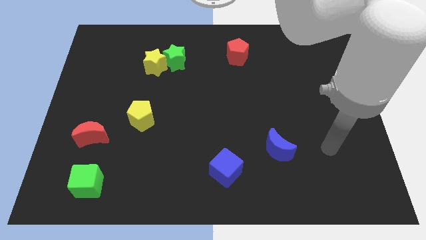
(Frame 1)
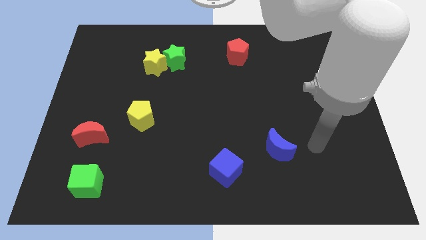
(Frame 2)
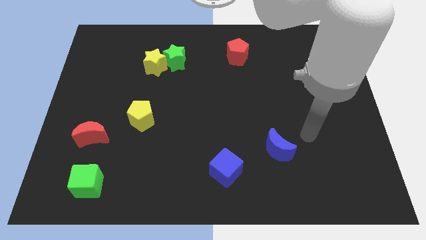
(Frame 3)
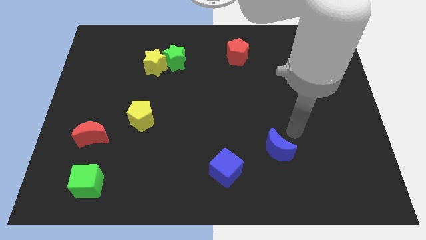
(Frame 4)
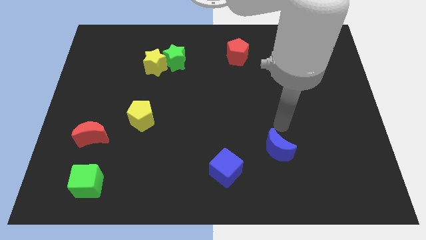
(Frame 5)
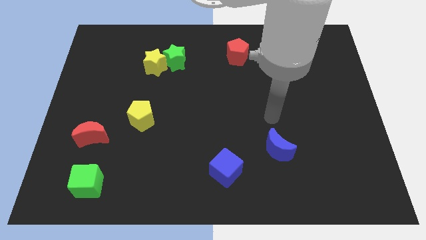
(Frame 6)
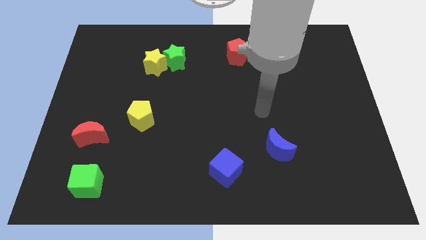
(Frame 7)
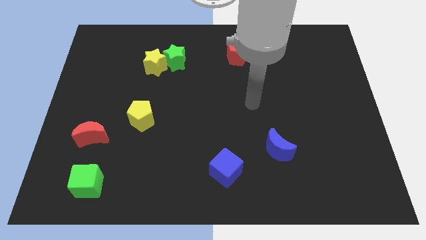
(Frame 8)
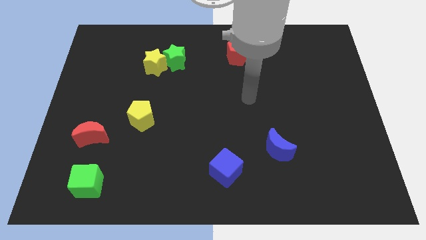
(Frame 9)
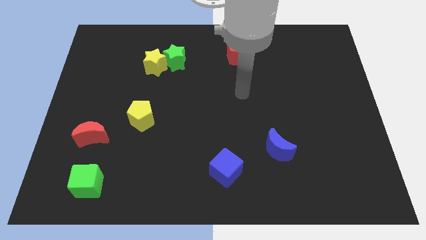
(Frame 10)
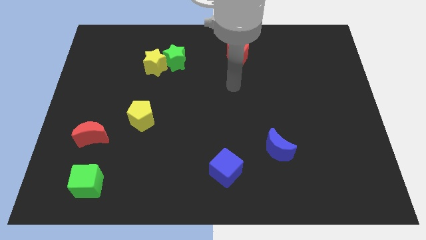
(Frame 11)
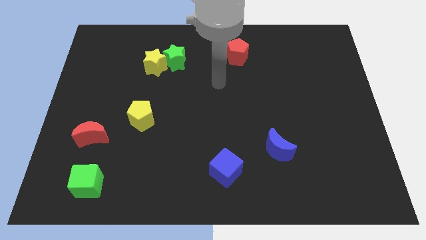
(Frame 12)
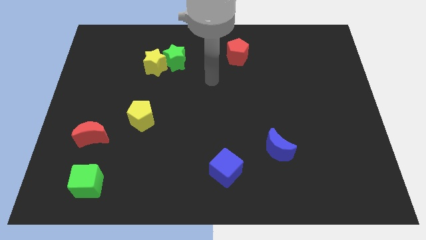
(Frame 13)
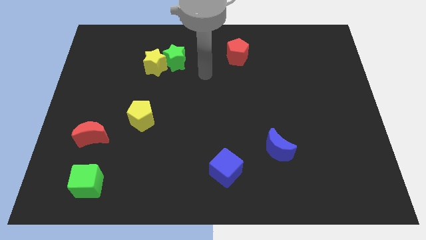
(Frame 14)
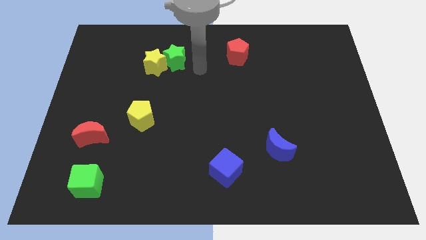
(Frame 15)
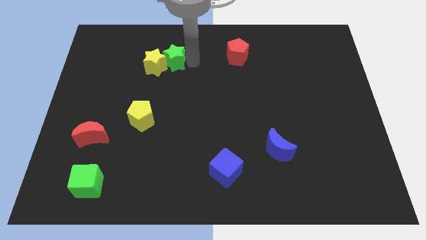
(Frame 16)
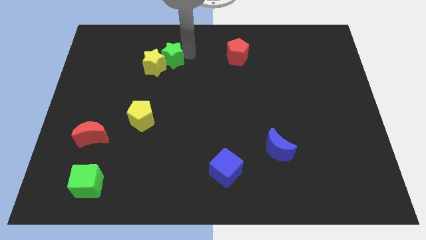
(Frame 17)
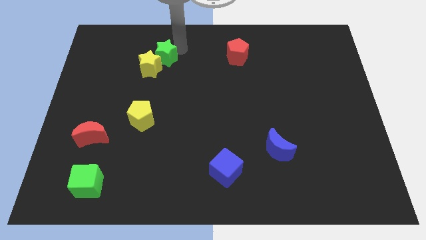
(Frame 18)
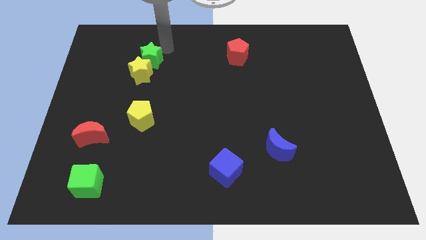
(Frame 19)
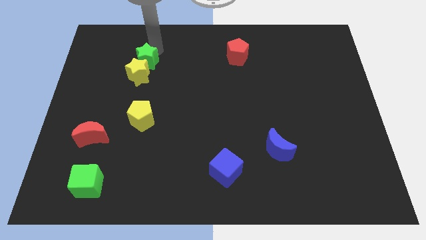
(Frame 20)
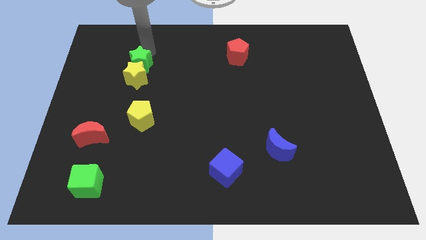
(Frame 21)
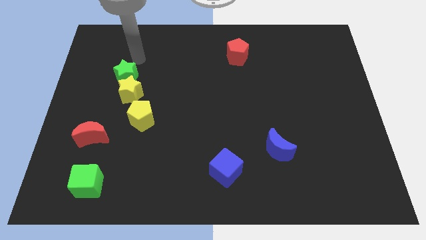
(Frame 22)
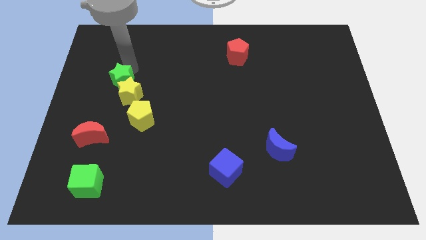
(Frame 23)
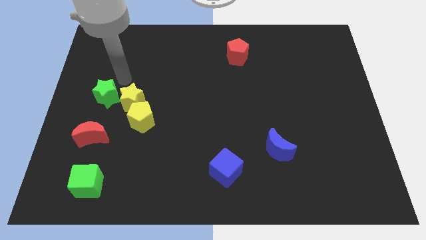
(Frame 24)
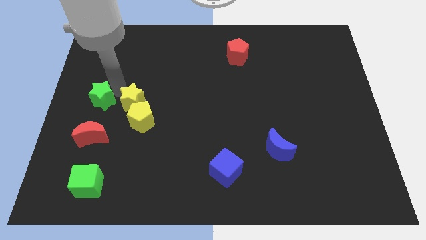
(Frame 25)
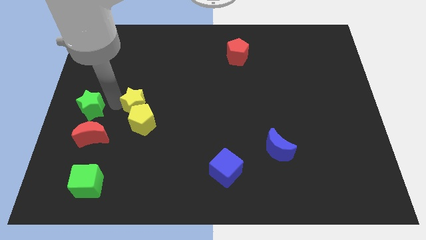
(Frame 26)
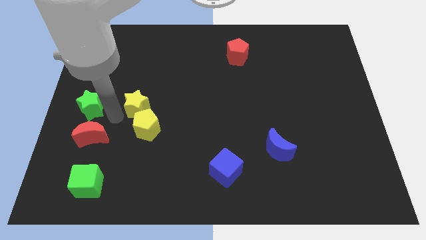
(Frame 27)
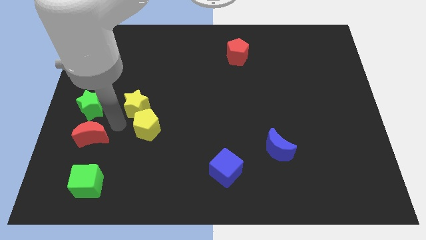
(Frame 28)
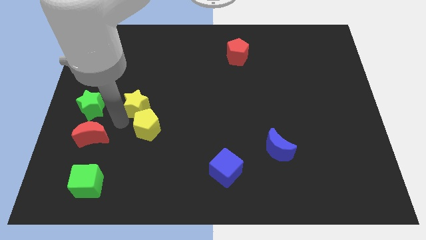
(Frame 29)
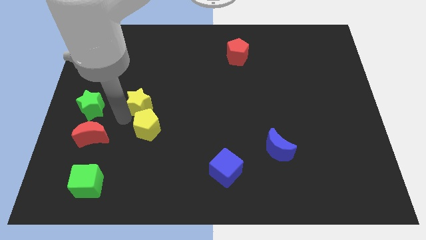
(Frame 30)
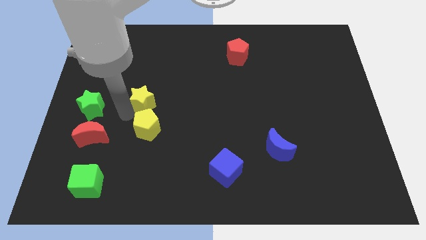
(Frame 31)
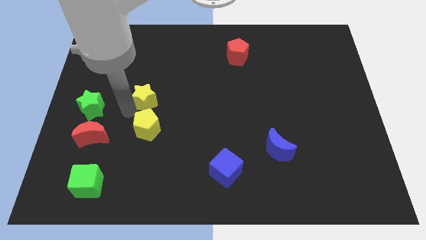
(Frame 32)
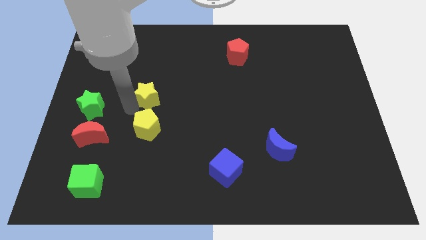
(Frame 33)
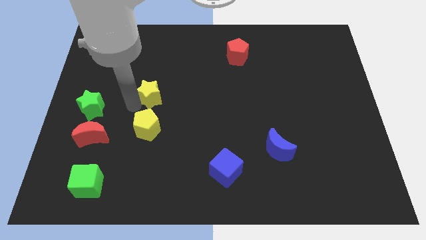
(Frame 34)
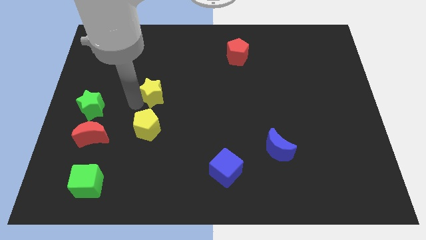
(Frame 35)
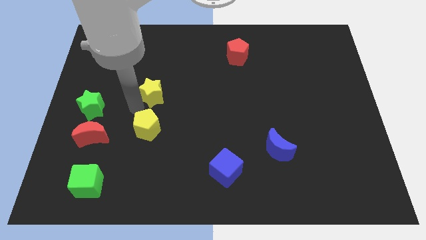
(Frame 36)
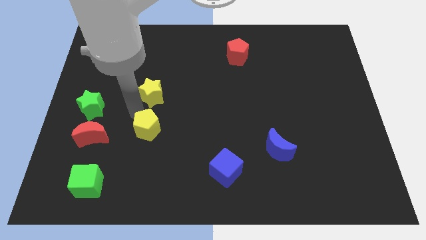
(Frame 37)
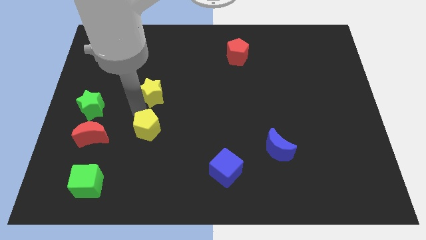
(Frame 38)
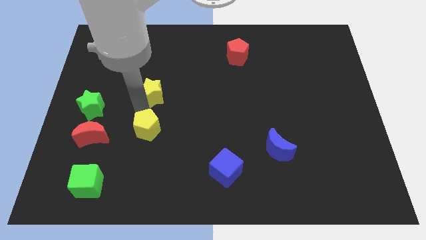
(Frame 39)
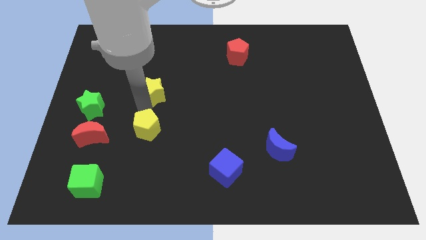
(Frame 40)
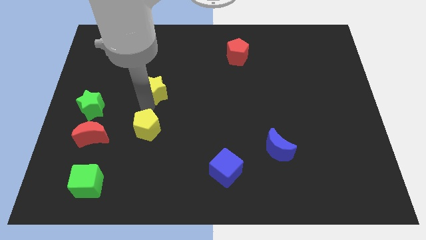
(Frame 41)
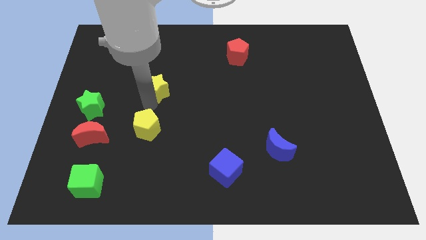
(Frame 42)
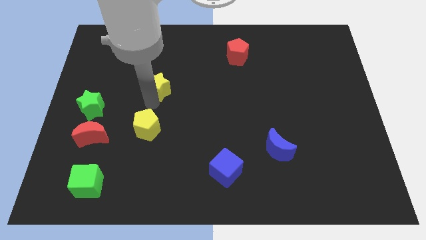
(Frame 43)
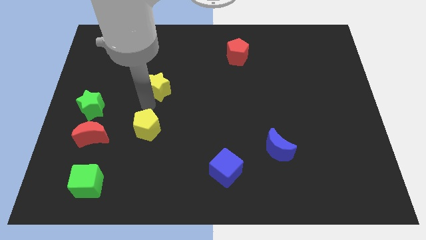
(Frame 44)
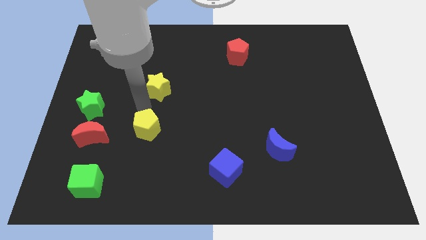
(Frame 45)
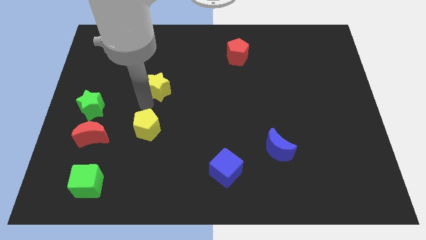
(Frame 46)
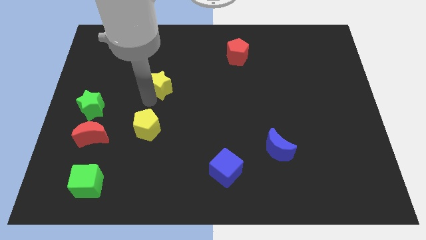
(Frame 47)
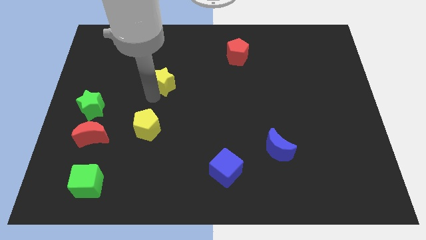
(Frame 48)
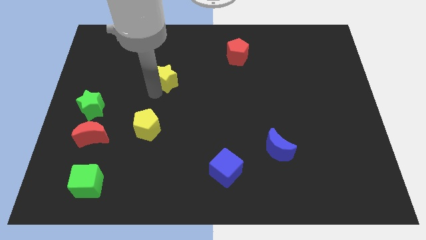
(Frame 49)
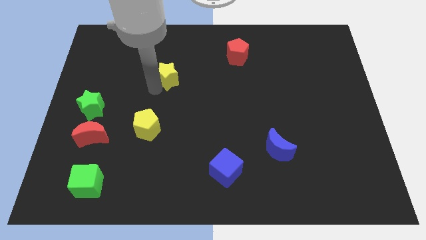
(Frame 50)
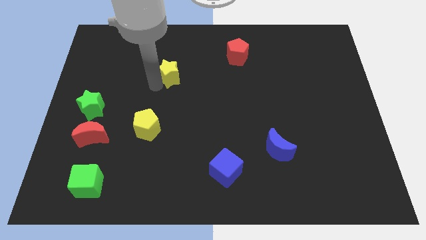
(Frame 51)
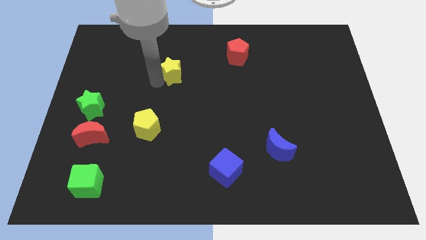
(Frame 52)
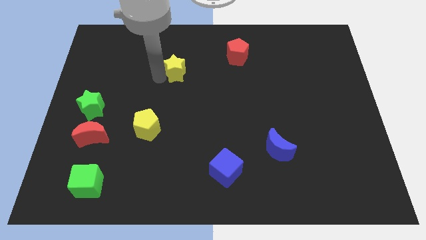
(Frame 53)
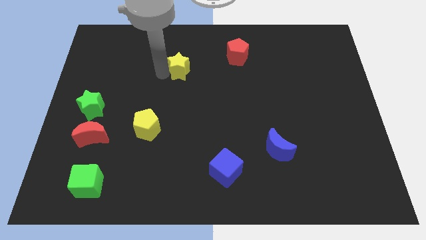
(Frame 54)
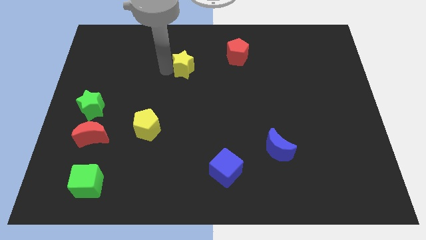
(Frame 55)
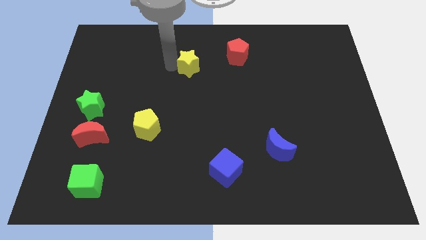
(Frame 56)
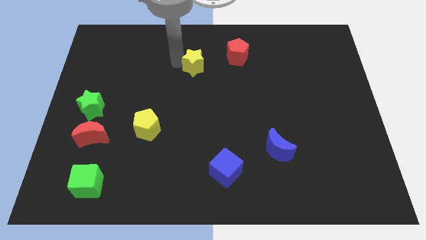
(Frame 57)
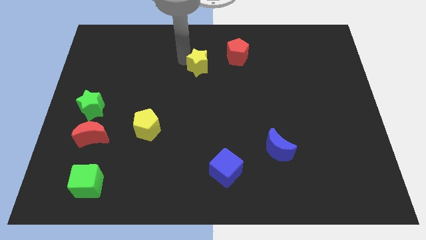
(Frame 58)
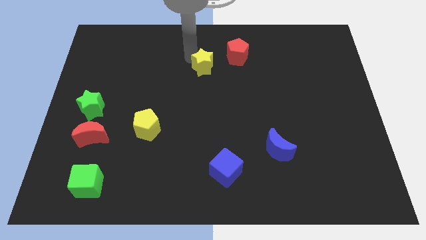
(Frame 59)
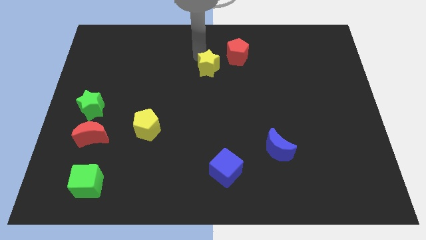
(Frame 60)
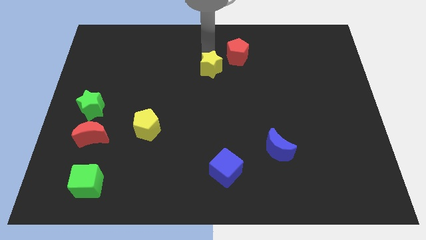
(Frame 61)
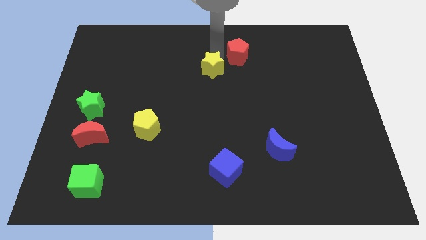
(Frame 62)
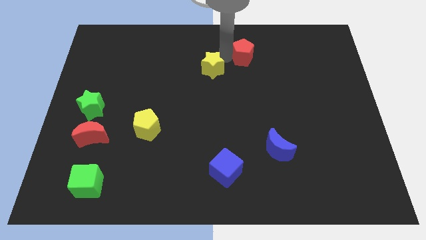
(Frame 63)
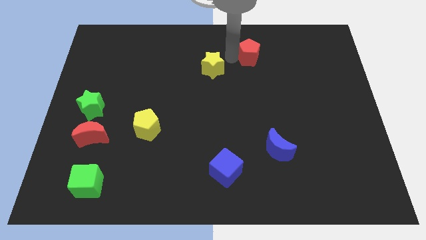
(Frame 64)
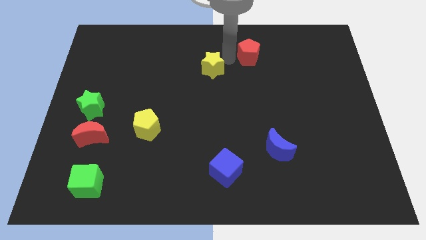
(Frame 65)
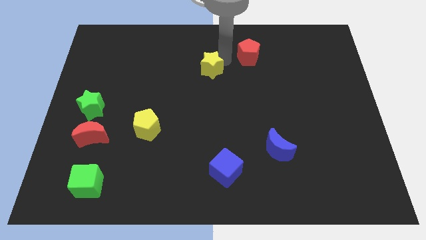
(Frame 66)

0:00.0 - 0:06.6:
slightly push the yellow star down and right diagonally

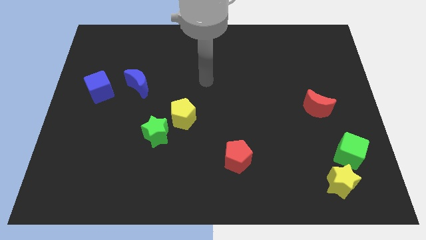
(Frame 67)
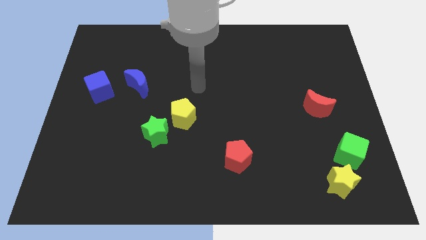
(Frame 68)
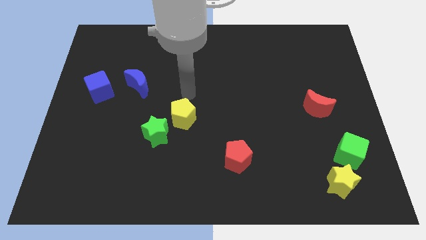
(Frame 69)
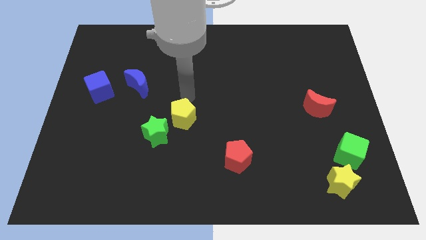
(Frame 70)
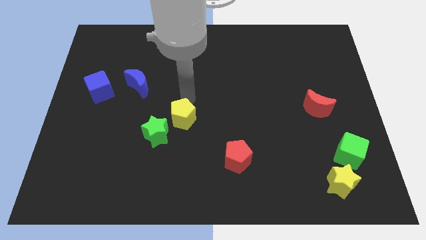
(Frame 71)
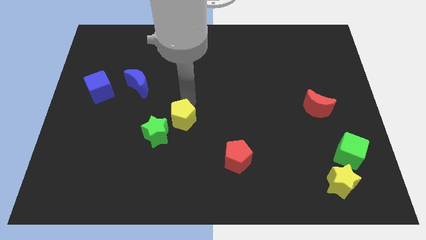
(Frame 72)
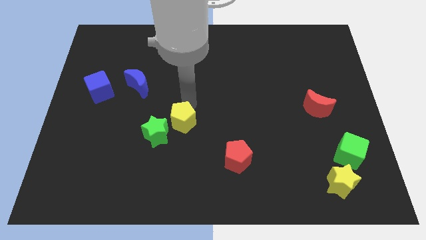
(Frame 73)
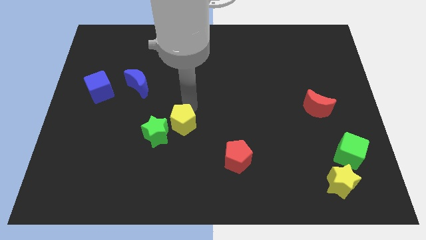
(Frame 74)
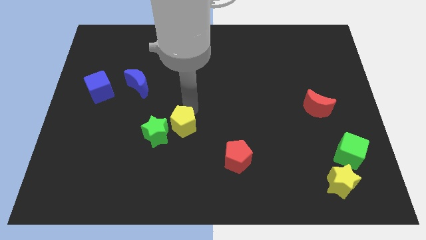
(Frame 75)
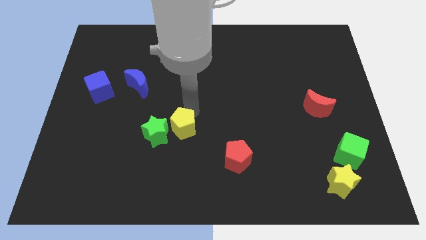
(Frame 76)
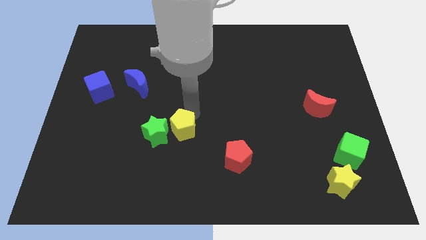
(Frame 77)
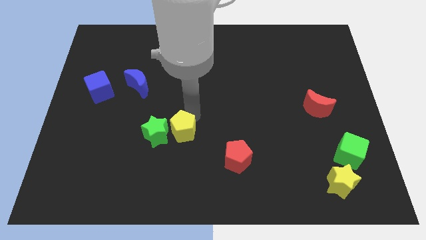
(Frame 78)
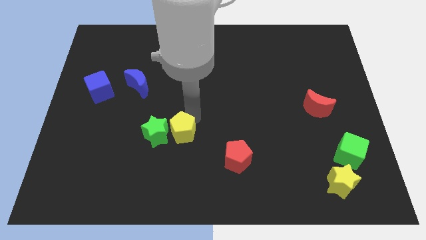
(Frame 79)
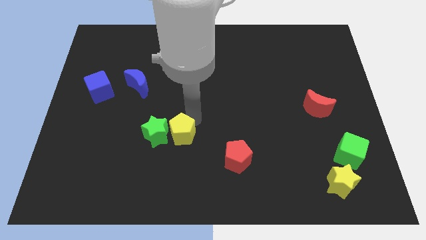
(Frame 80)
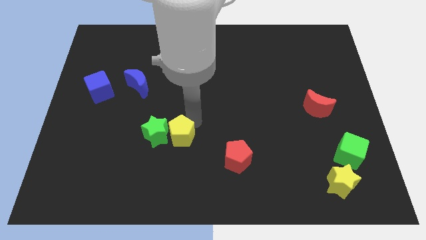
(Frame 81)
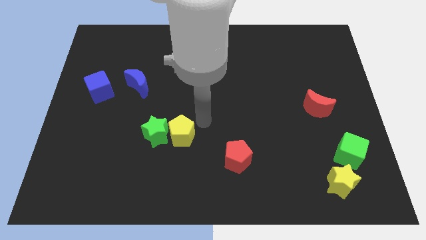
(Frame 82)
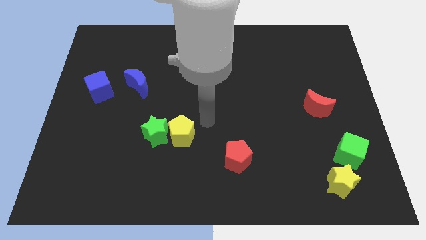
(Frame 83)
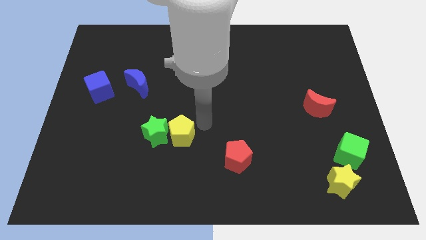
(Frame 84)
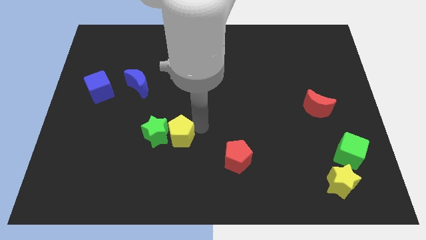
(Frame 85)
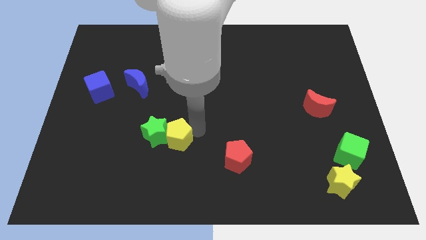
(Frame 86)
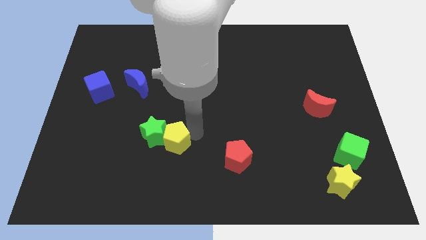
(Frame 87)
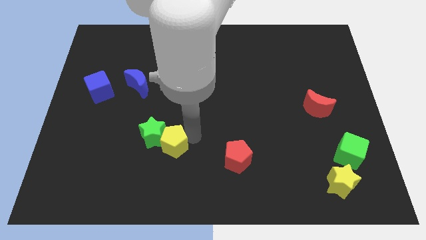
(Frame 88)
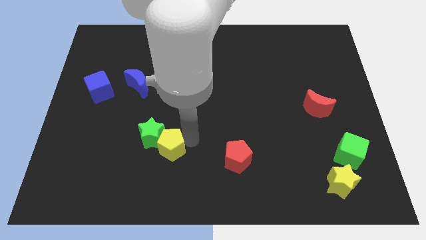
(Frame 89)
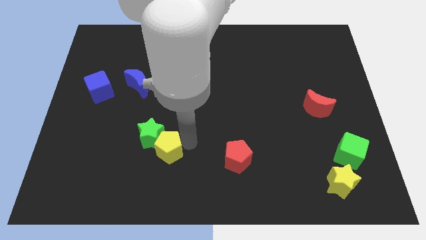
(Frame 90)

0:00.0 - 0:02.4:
move the yellow pentagon a little down and to the left diagonally
